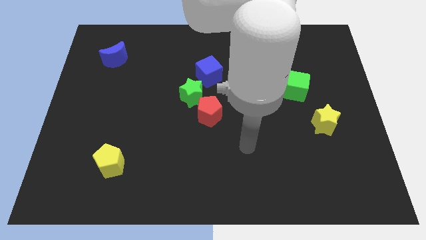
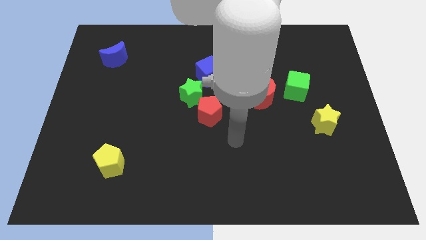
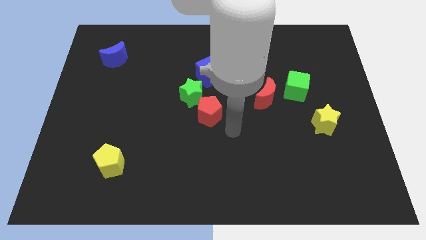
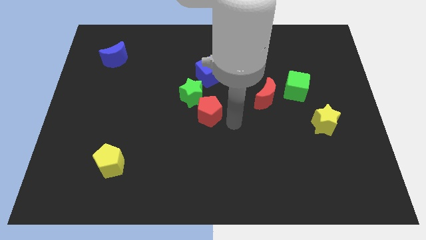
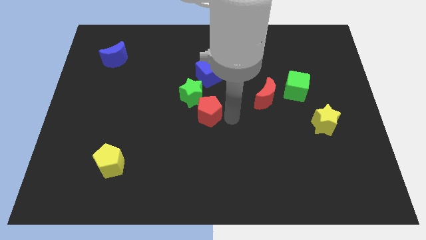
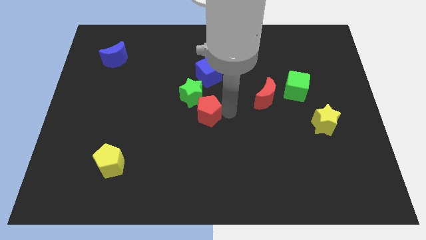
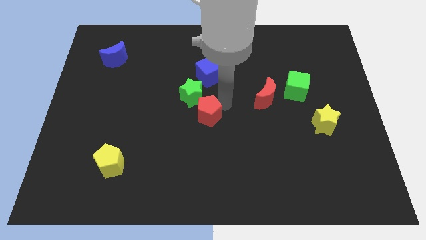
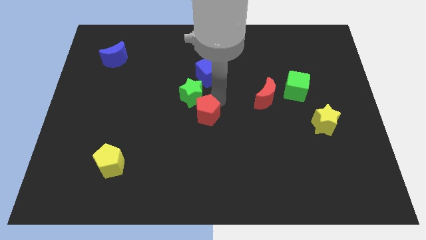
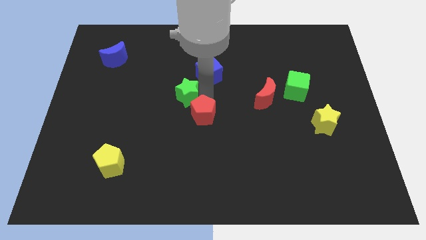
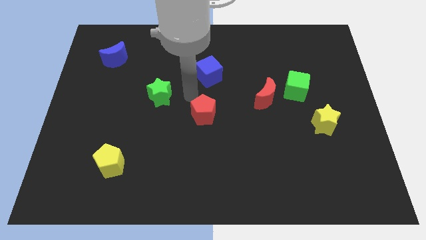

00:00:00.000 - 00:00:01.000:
pull the red pentagon apart from the green star

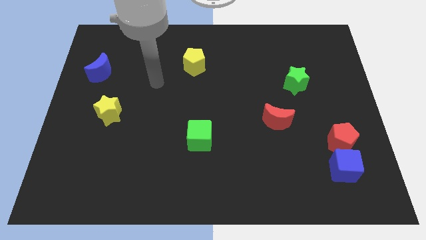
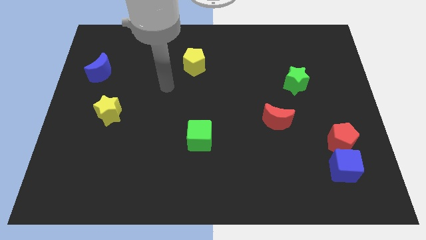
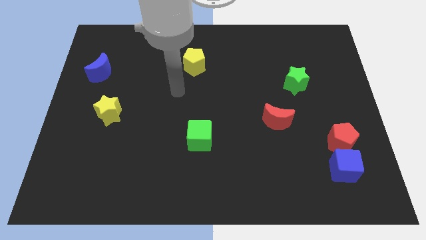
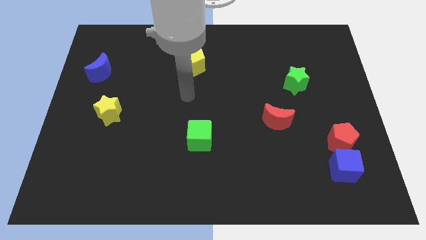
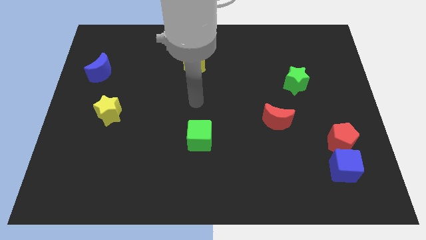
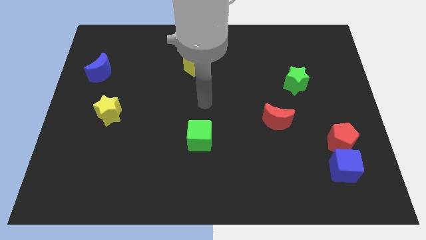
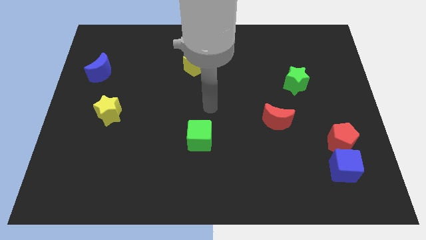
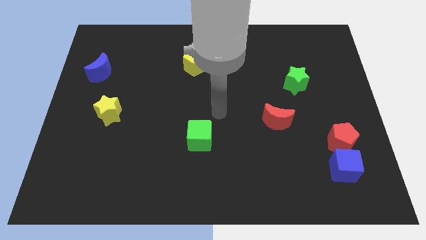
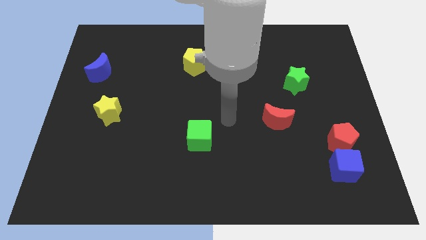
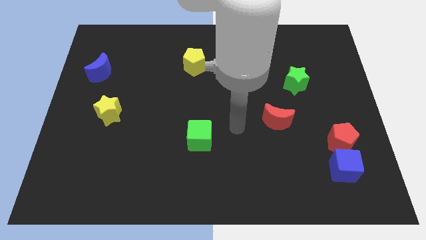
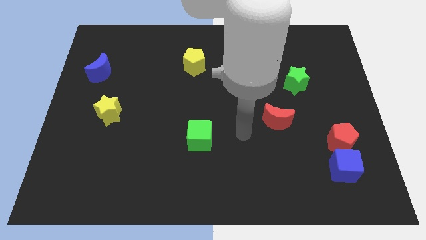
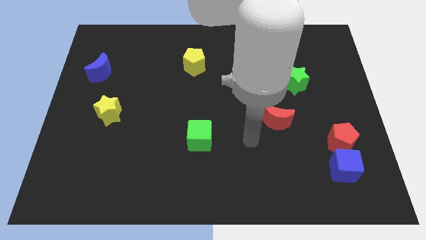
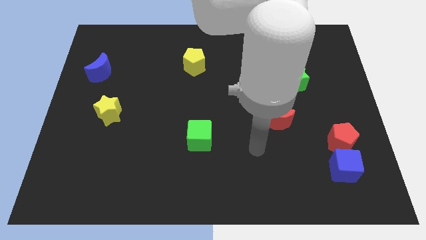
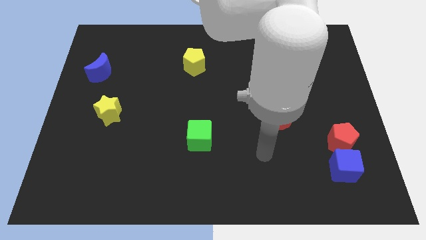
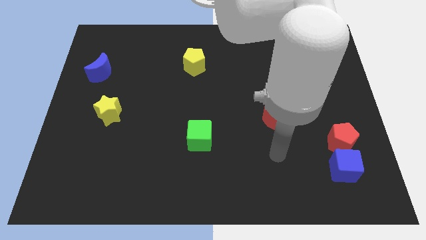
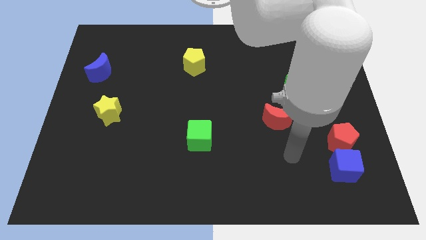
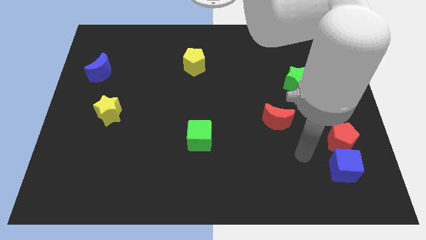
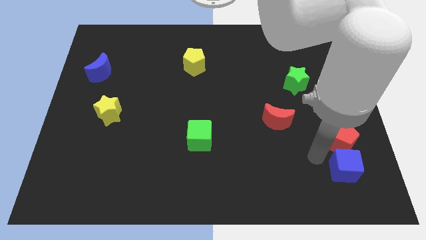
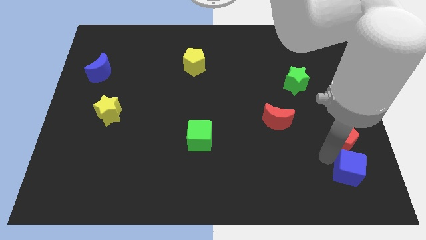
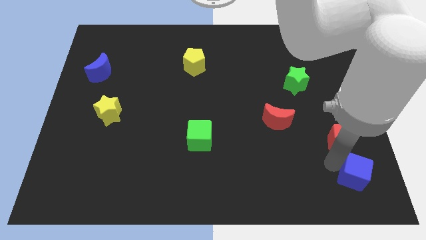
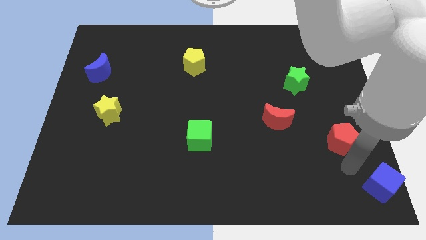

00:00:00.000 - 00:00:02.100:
pull the red pentagon apart from the blue cube

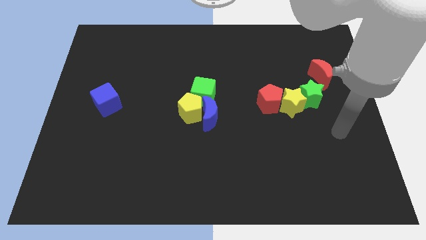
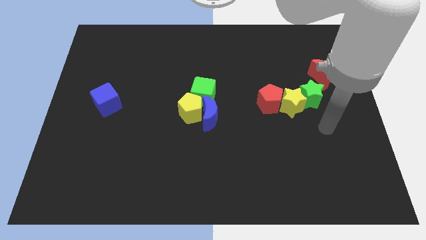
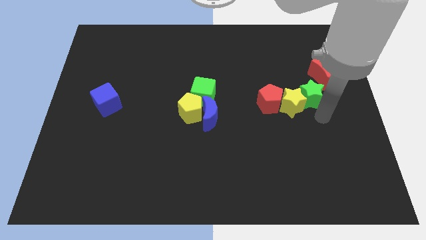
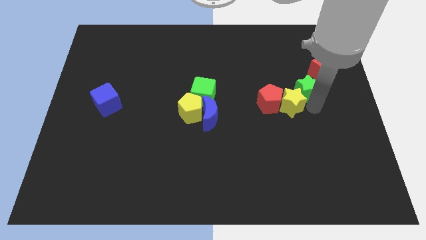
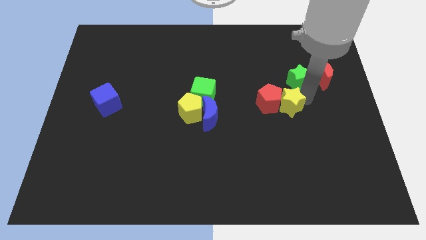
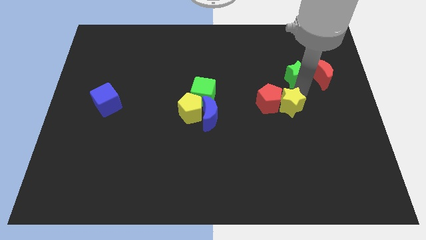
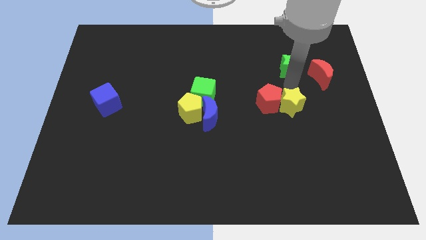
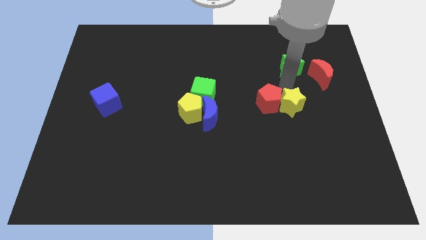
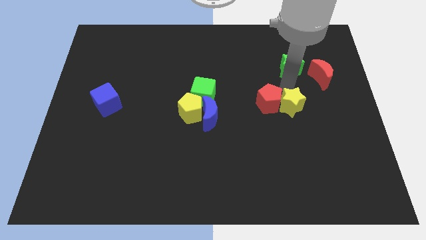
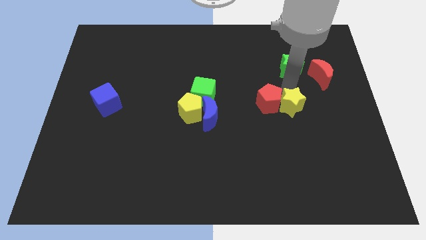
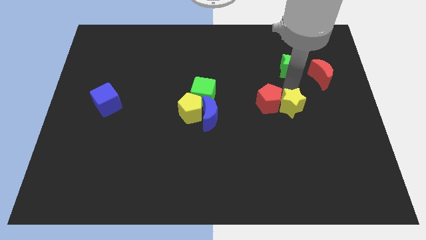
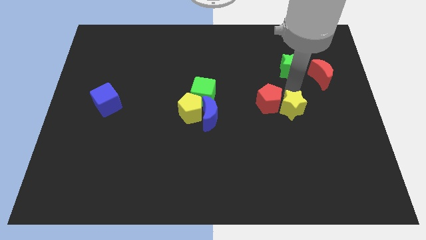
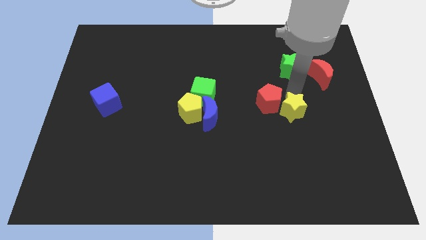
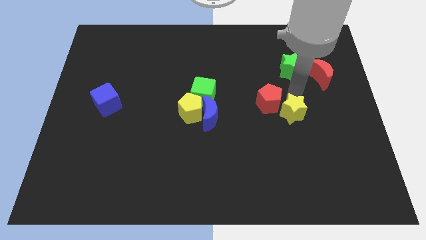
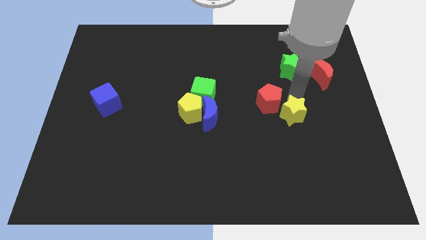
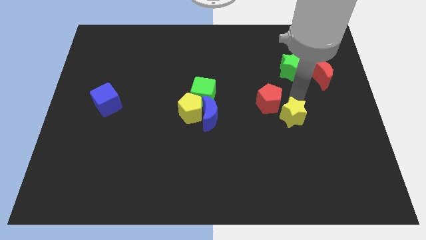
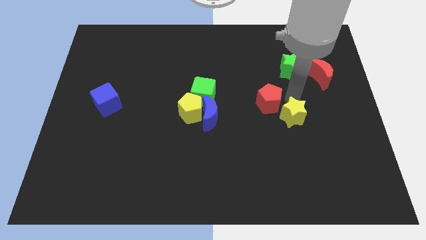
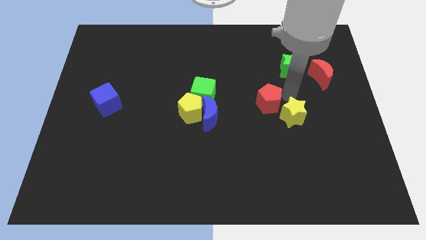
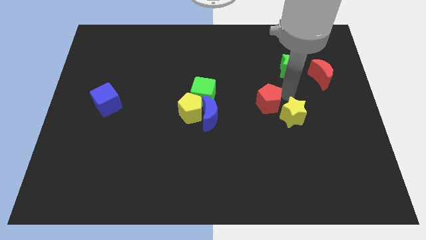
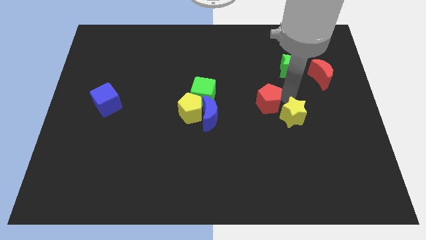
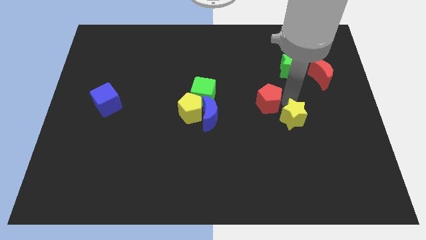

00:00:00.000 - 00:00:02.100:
pull the yellow star apart from the red pentagon and green star

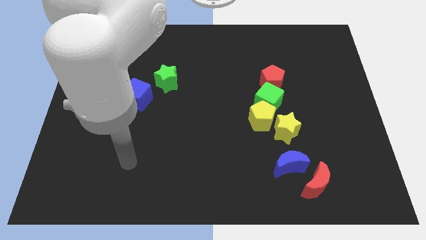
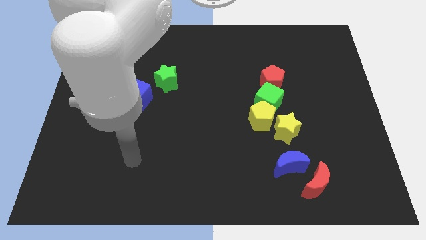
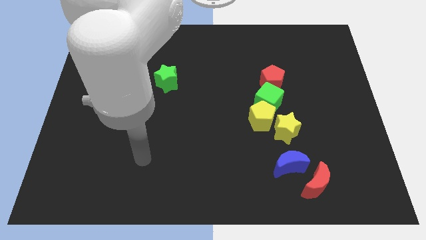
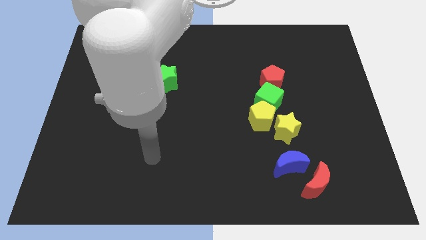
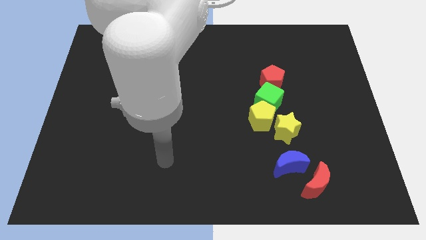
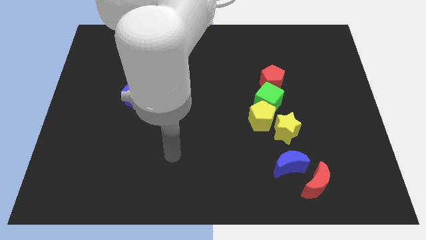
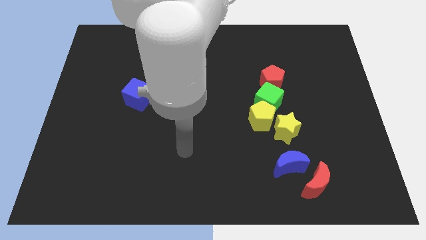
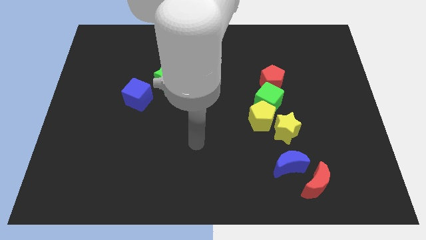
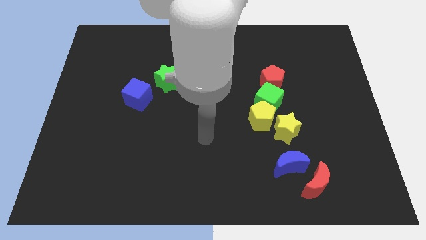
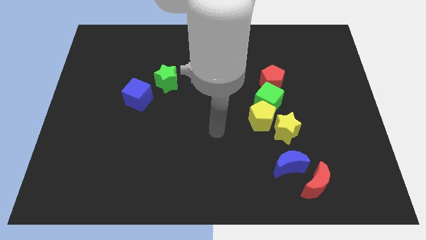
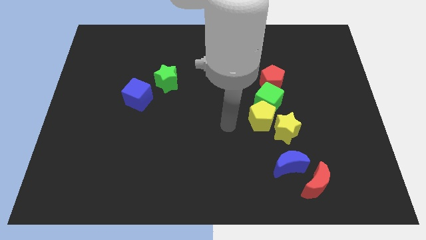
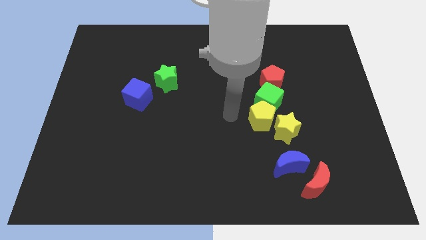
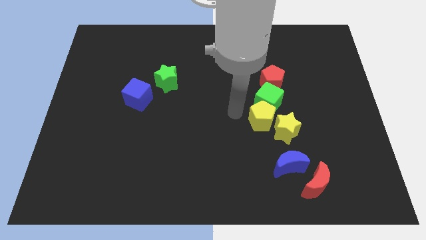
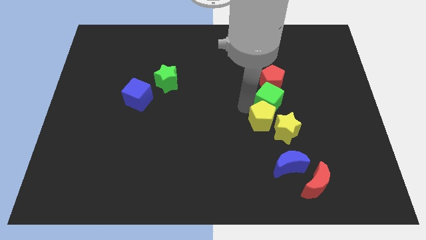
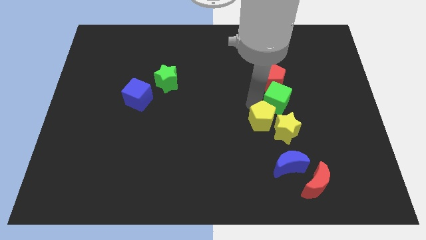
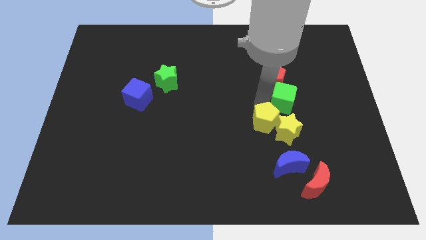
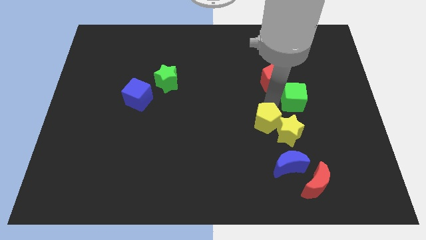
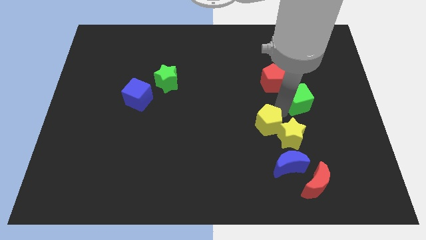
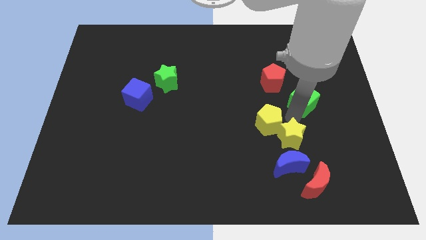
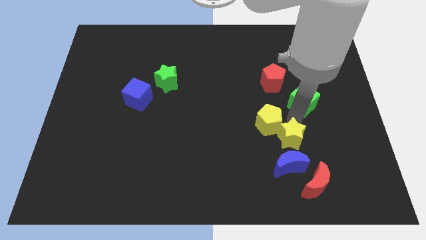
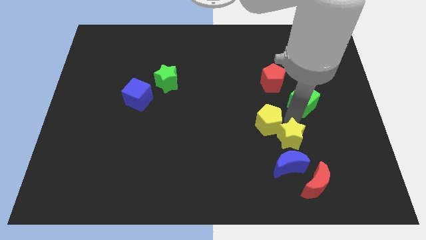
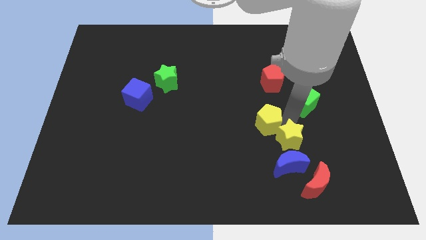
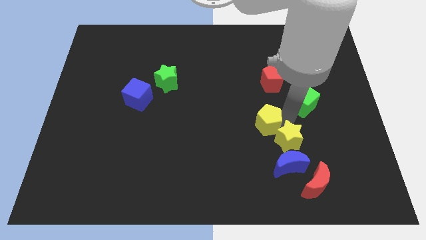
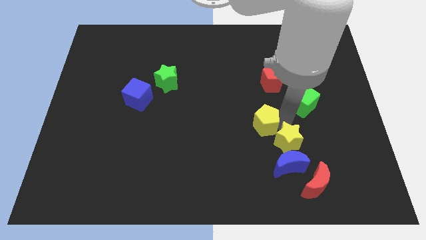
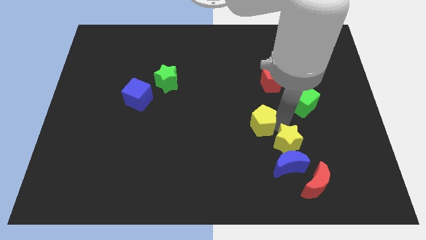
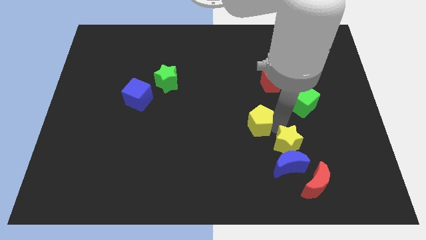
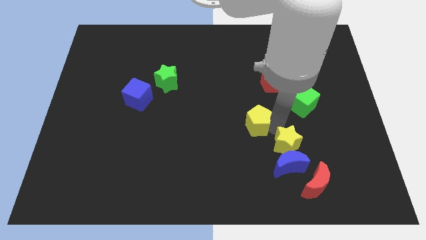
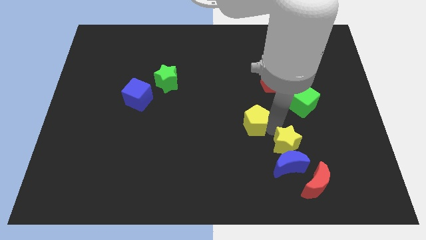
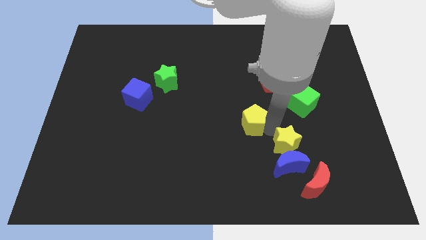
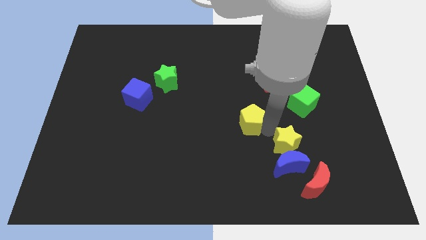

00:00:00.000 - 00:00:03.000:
pull the yellow pentagon apart from the green cube and yellow star

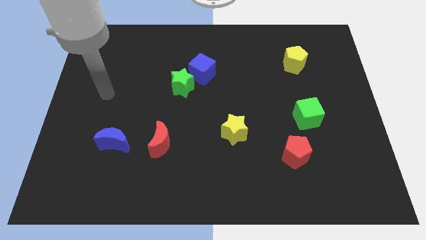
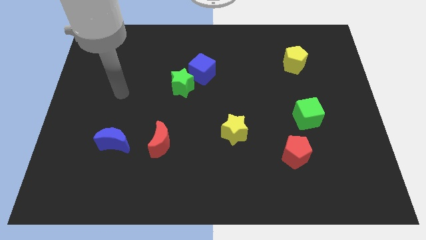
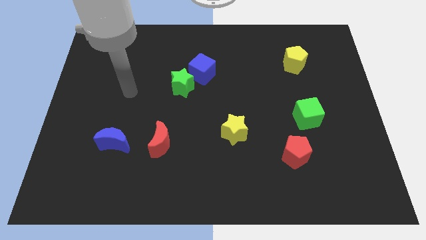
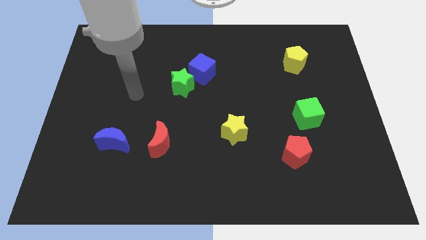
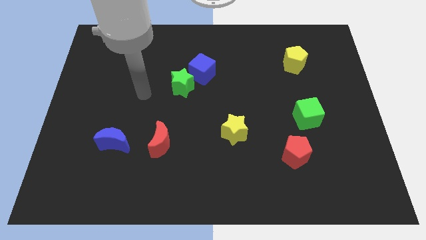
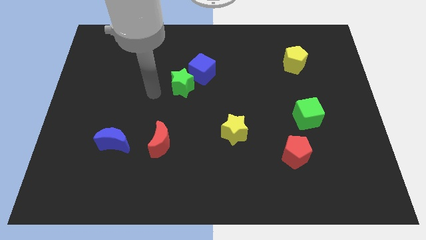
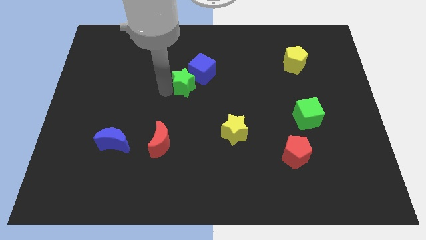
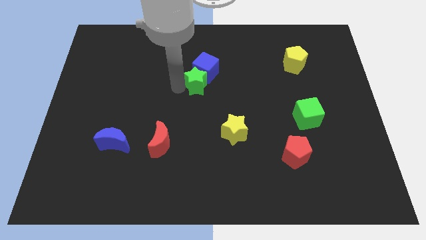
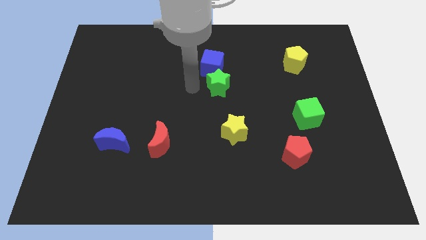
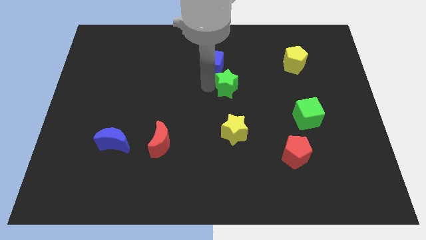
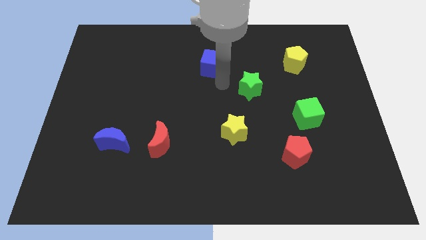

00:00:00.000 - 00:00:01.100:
separate the blue cube from the green star
